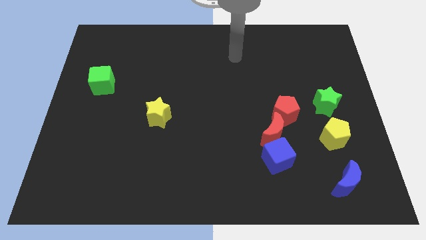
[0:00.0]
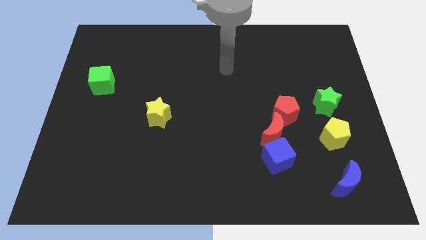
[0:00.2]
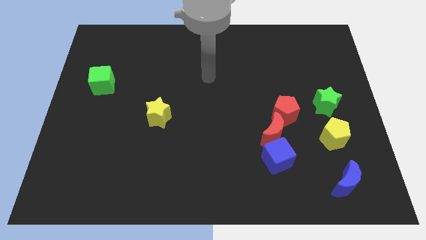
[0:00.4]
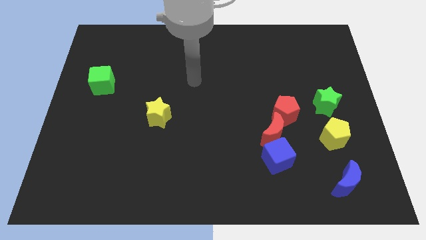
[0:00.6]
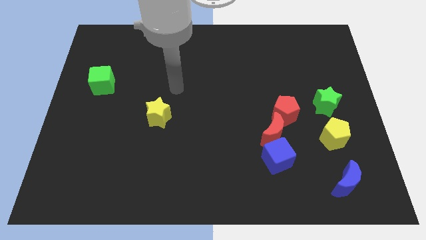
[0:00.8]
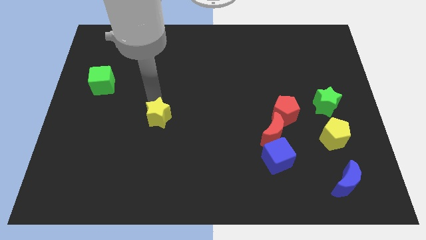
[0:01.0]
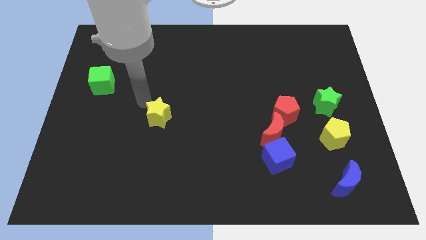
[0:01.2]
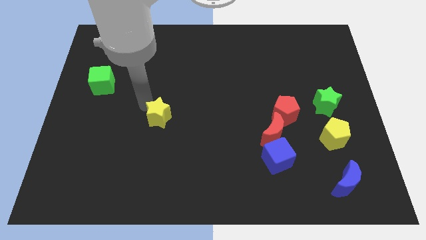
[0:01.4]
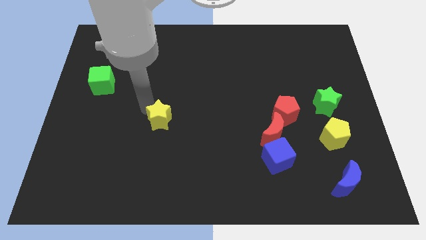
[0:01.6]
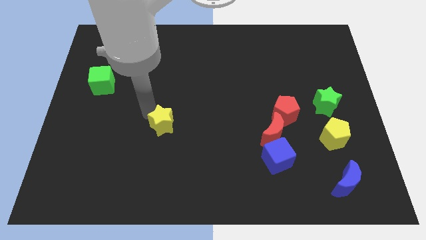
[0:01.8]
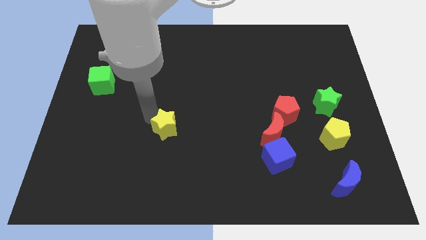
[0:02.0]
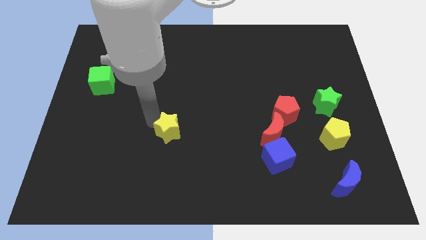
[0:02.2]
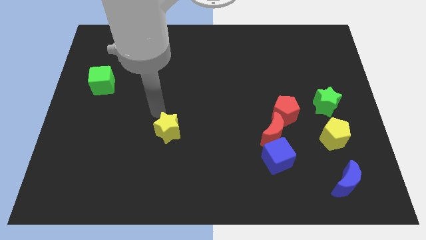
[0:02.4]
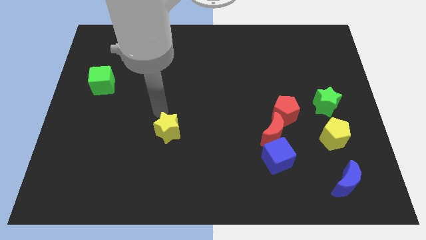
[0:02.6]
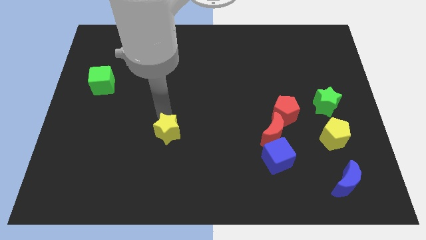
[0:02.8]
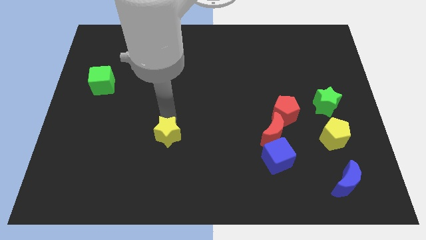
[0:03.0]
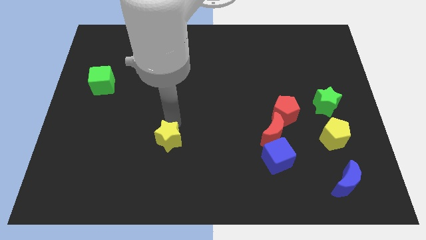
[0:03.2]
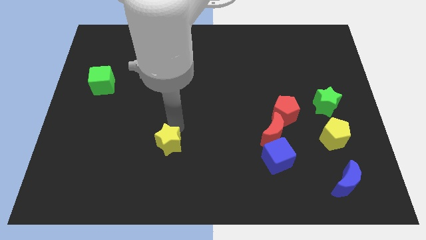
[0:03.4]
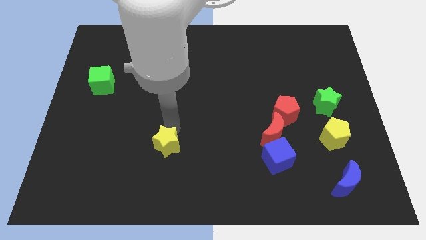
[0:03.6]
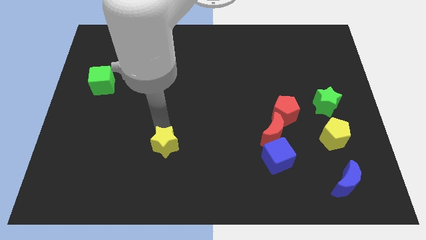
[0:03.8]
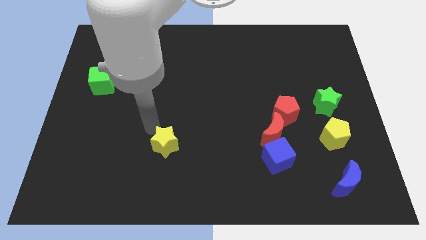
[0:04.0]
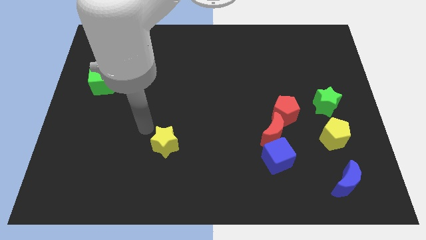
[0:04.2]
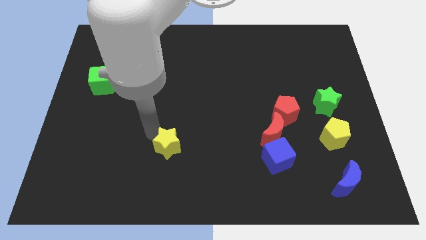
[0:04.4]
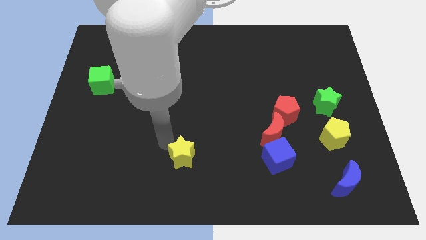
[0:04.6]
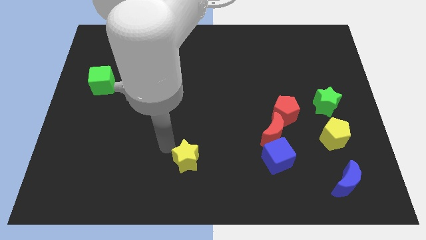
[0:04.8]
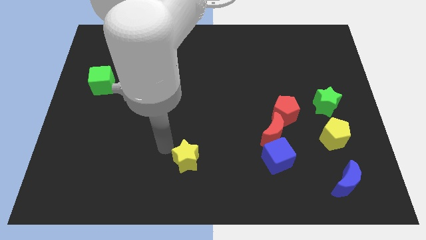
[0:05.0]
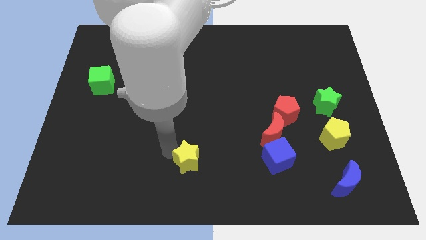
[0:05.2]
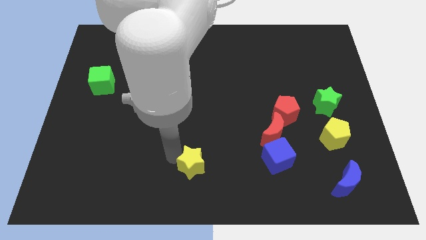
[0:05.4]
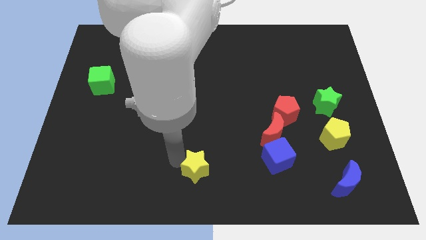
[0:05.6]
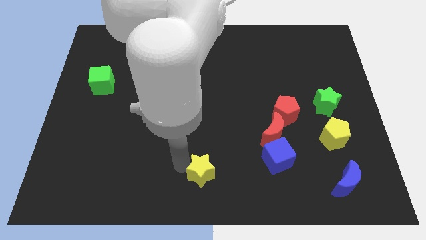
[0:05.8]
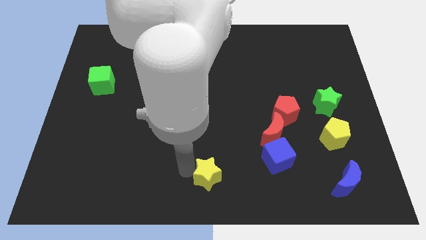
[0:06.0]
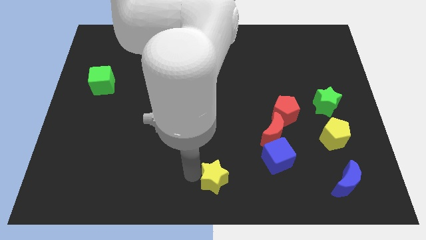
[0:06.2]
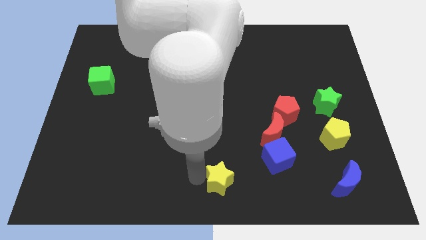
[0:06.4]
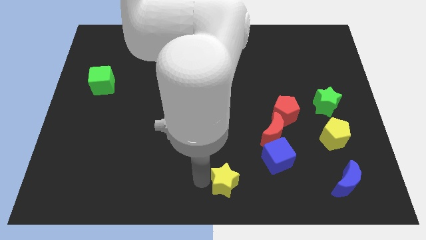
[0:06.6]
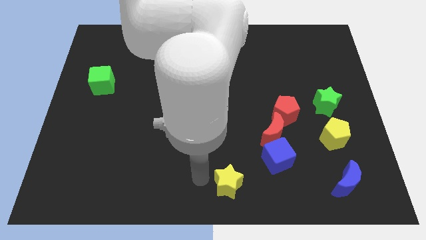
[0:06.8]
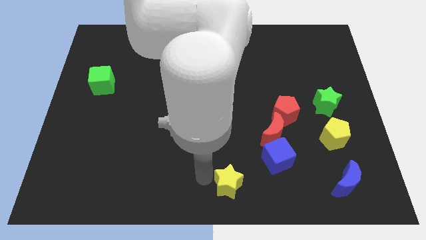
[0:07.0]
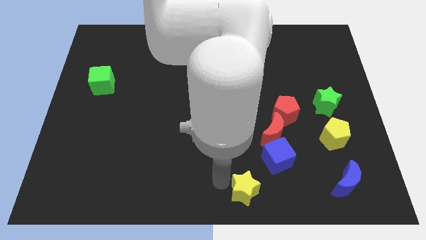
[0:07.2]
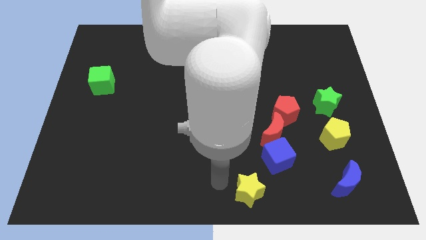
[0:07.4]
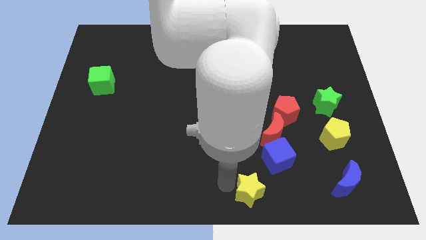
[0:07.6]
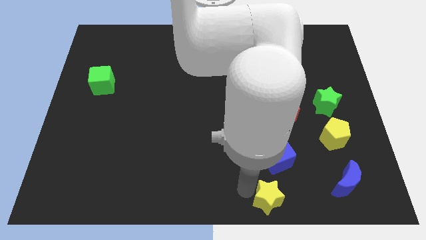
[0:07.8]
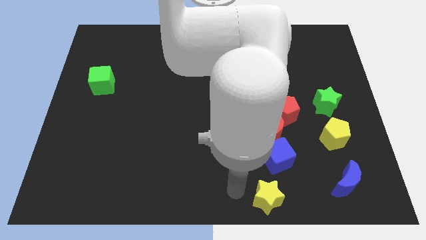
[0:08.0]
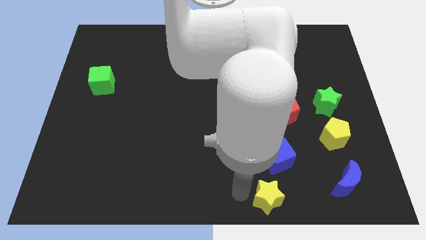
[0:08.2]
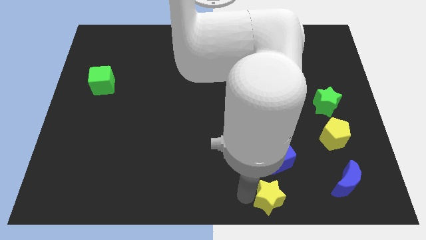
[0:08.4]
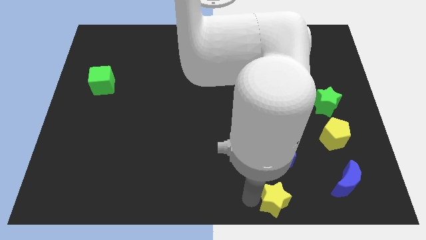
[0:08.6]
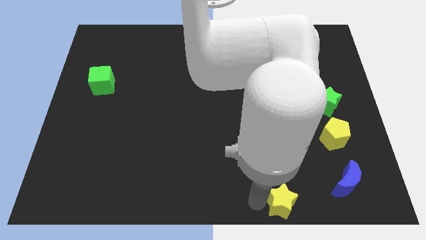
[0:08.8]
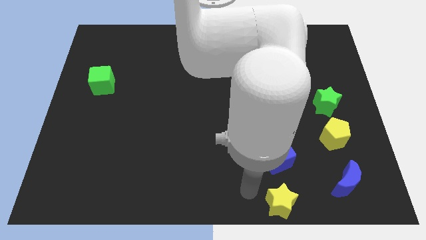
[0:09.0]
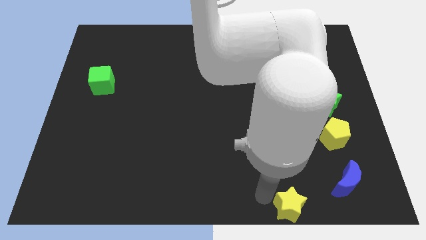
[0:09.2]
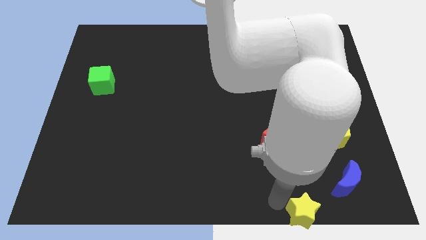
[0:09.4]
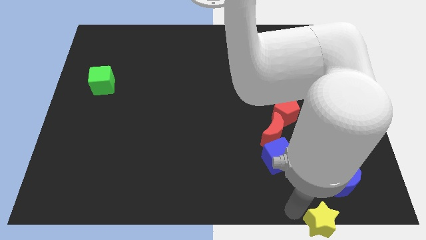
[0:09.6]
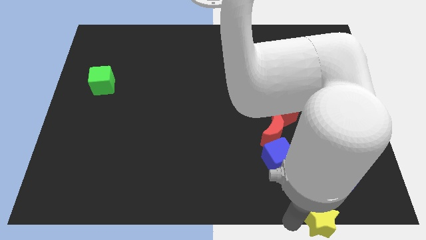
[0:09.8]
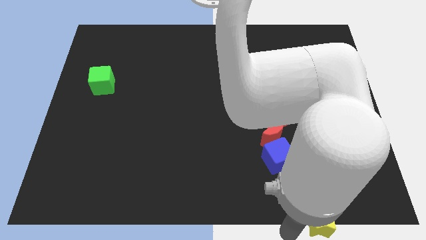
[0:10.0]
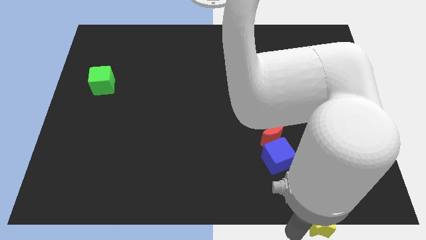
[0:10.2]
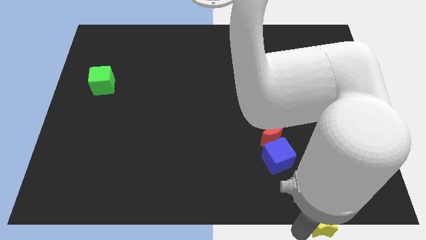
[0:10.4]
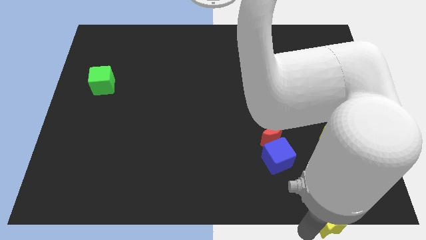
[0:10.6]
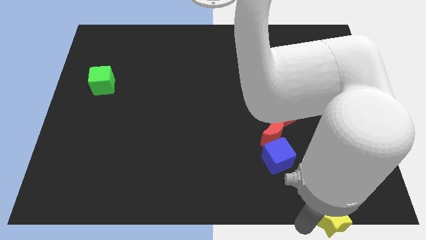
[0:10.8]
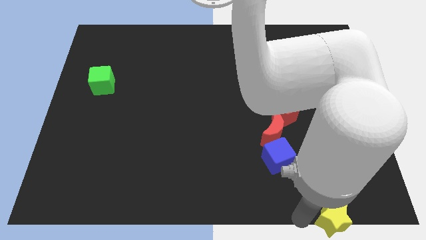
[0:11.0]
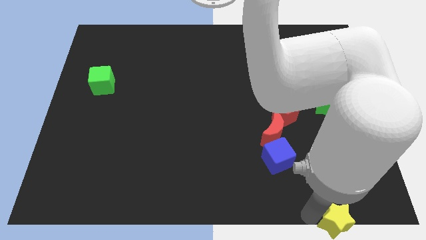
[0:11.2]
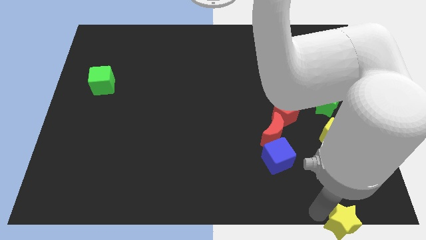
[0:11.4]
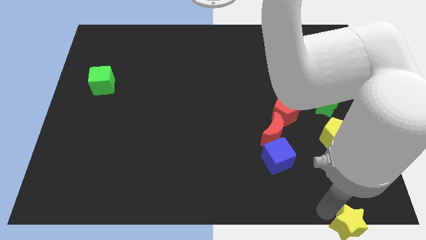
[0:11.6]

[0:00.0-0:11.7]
push the yellow star to the bottom right corner

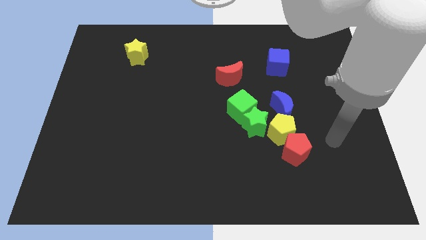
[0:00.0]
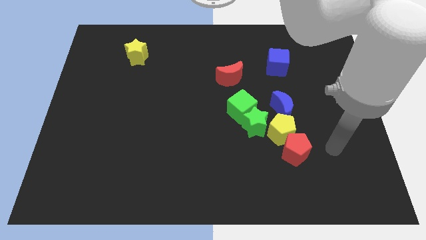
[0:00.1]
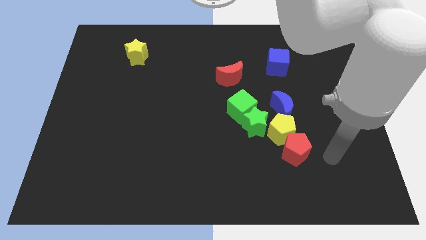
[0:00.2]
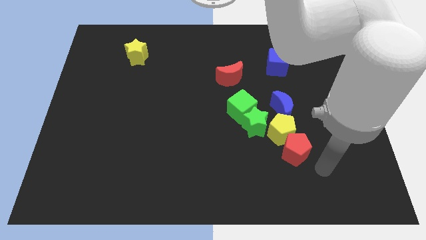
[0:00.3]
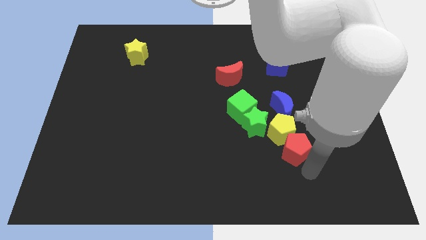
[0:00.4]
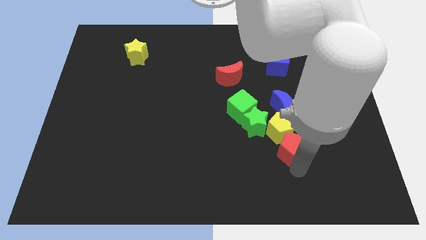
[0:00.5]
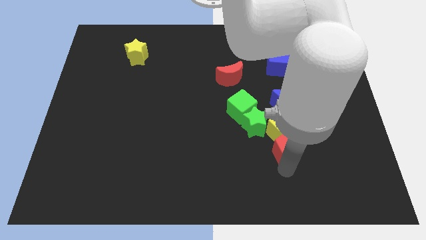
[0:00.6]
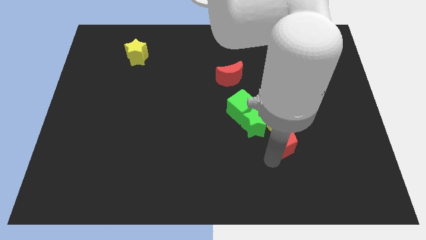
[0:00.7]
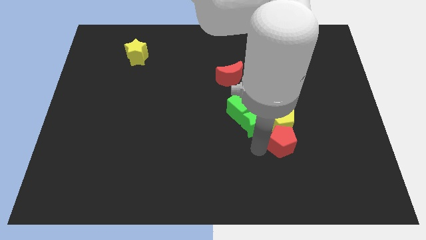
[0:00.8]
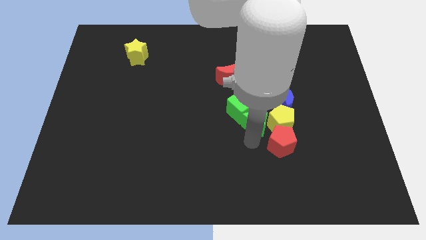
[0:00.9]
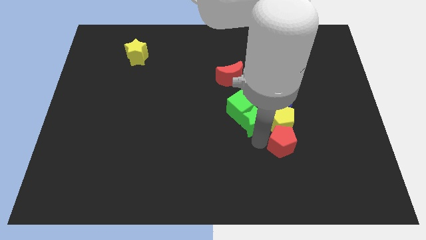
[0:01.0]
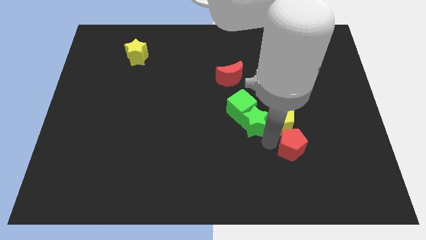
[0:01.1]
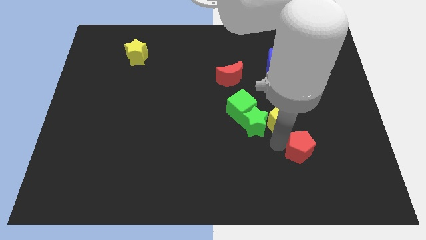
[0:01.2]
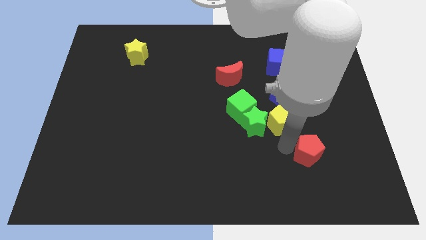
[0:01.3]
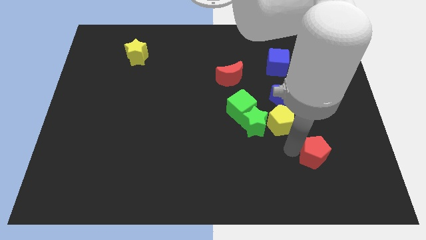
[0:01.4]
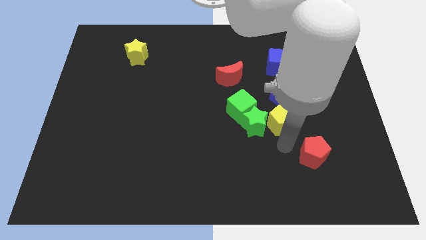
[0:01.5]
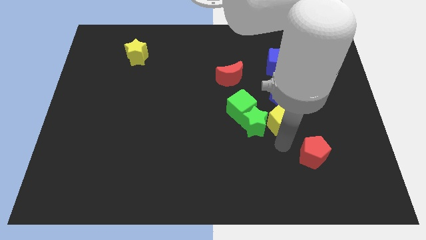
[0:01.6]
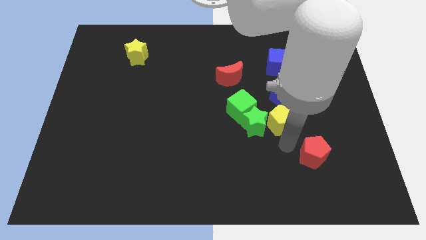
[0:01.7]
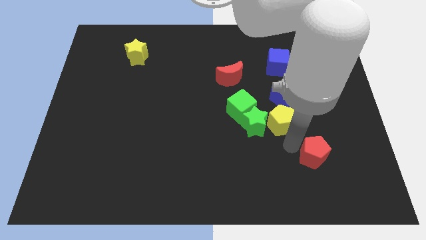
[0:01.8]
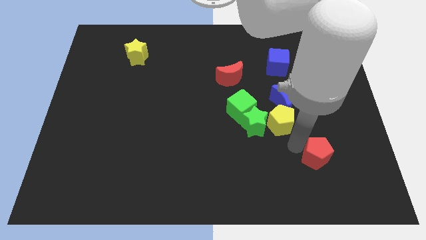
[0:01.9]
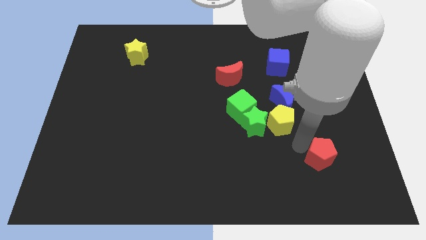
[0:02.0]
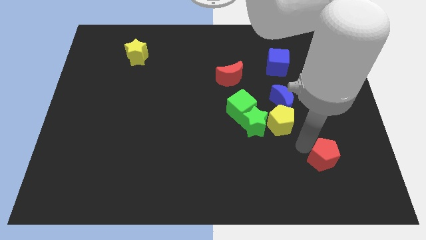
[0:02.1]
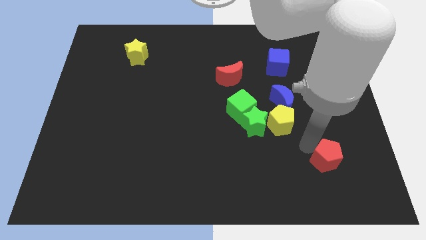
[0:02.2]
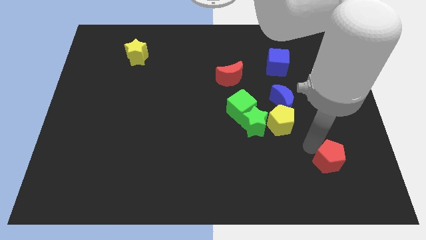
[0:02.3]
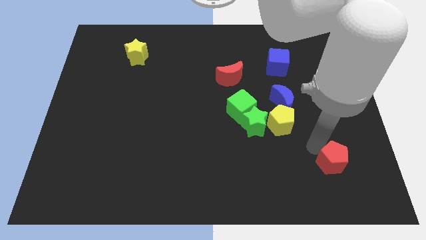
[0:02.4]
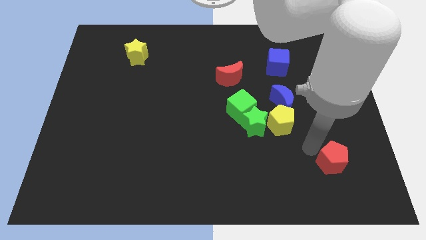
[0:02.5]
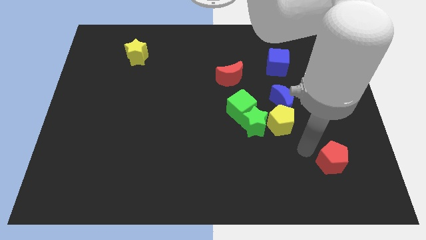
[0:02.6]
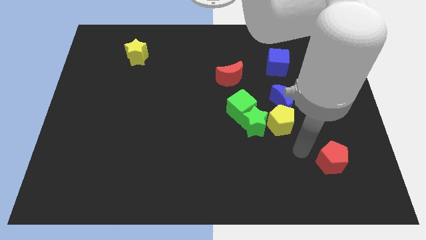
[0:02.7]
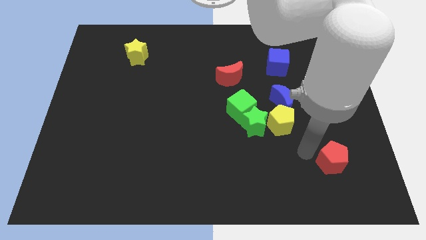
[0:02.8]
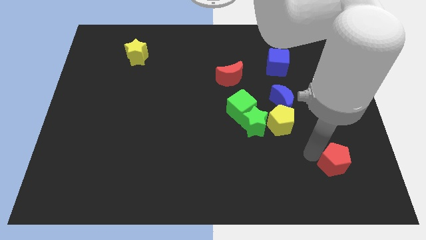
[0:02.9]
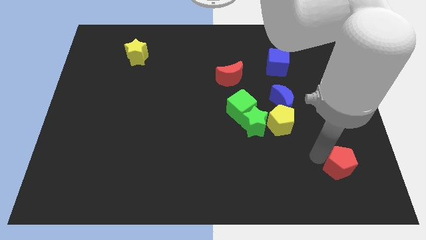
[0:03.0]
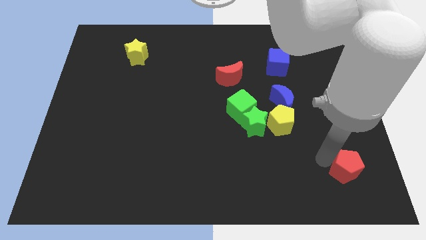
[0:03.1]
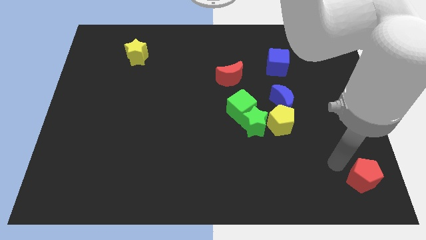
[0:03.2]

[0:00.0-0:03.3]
slide the red pentagon to the bottom right corner
